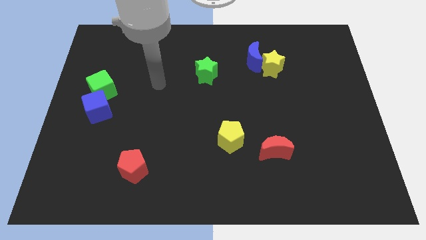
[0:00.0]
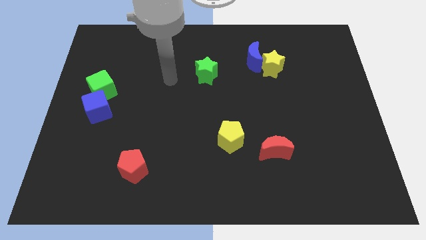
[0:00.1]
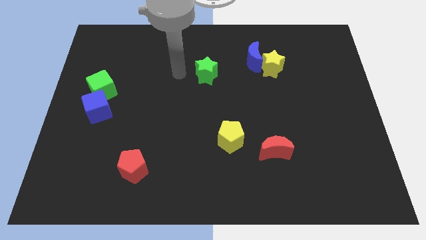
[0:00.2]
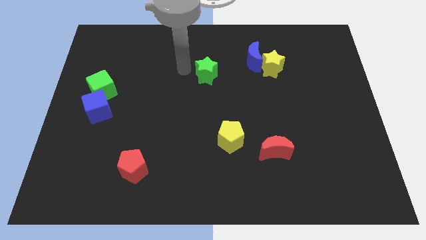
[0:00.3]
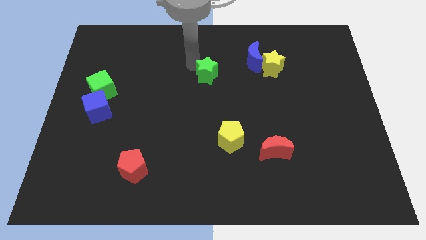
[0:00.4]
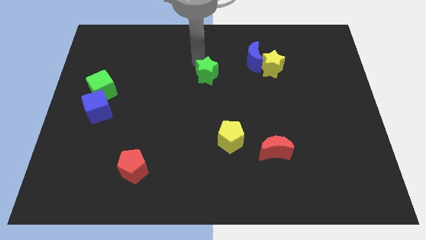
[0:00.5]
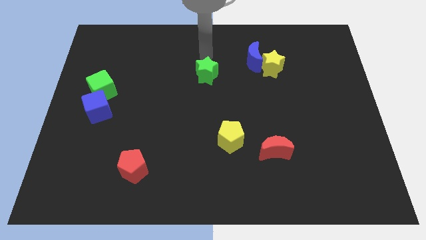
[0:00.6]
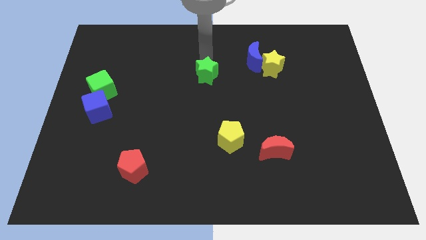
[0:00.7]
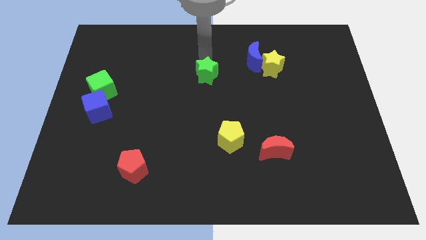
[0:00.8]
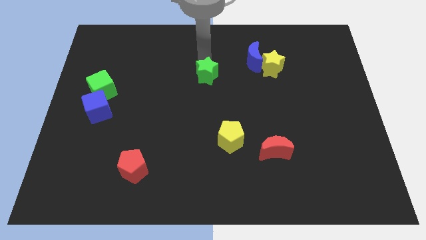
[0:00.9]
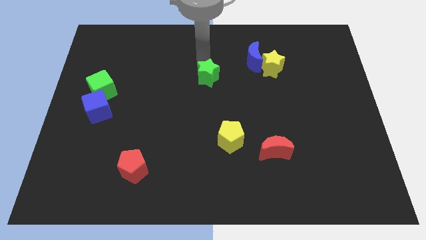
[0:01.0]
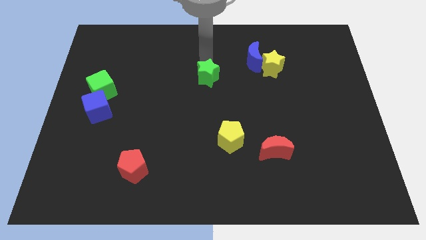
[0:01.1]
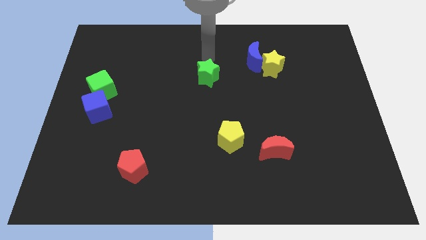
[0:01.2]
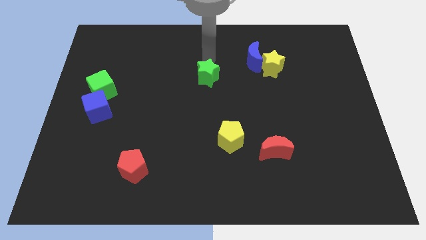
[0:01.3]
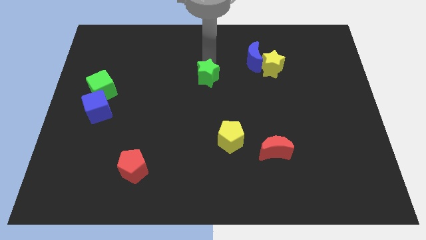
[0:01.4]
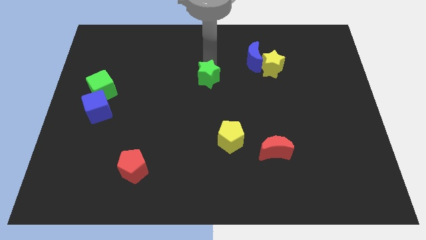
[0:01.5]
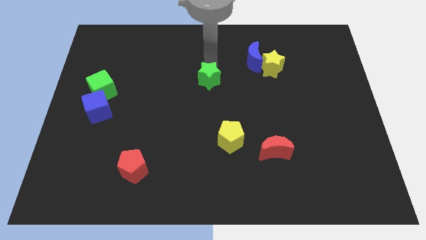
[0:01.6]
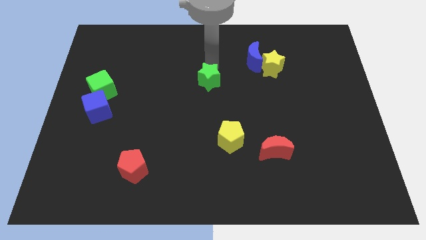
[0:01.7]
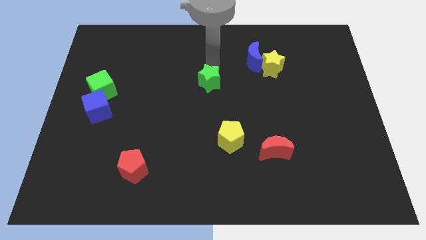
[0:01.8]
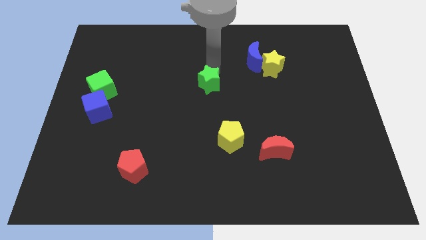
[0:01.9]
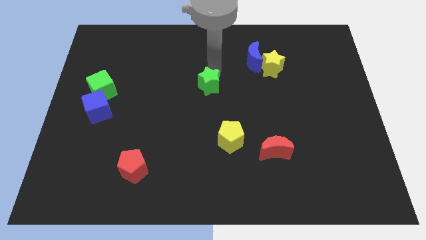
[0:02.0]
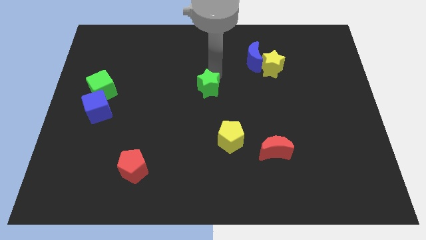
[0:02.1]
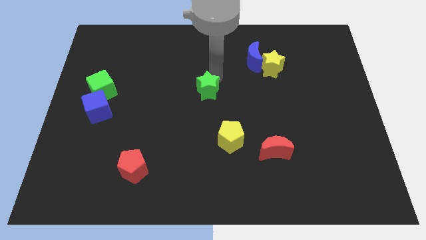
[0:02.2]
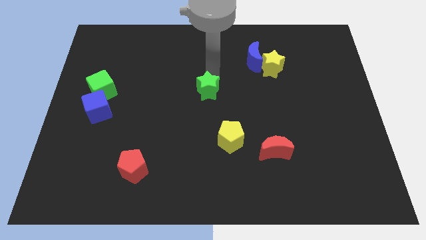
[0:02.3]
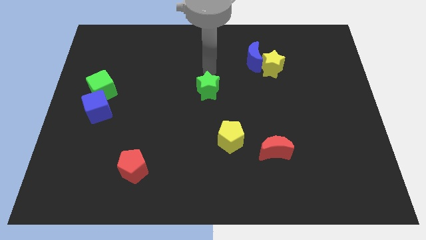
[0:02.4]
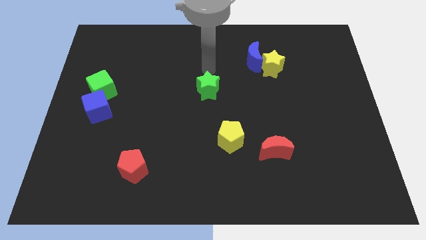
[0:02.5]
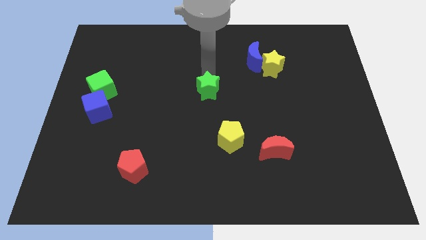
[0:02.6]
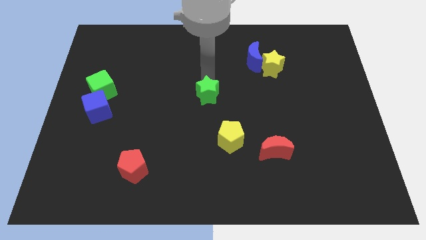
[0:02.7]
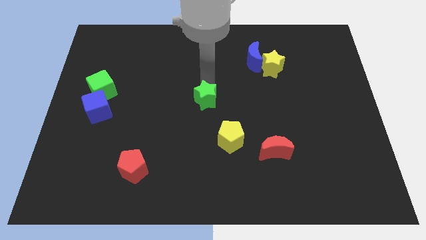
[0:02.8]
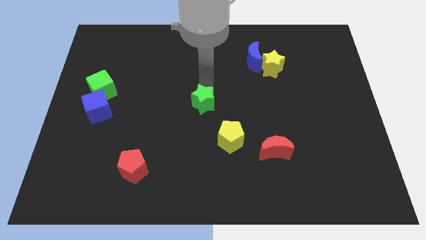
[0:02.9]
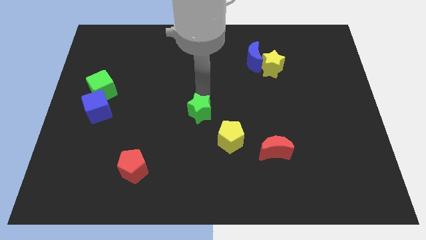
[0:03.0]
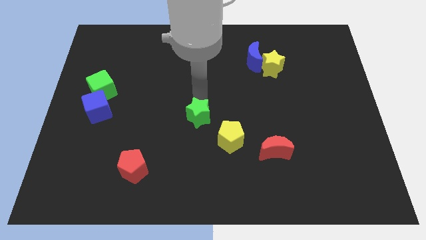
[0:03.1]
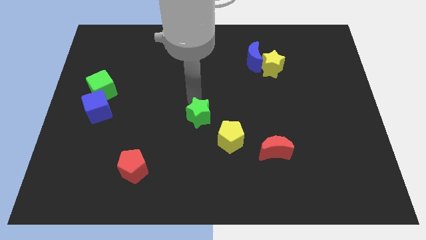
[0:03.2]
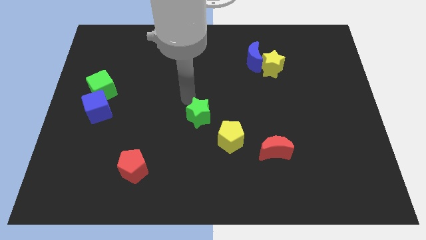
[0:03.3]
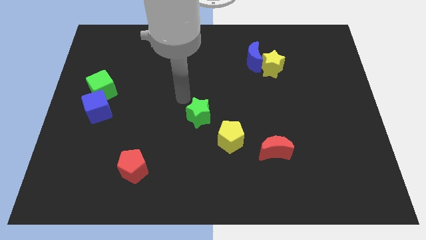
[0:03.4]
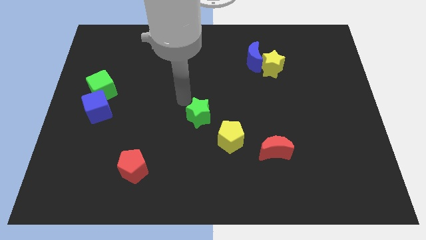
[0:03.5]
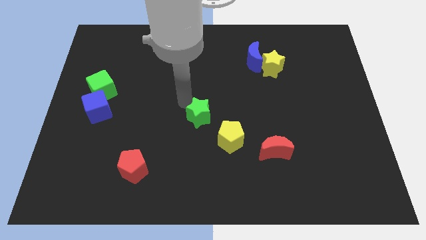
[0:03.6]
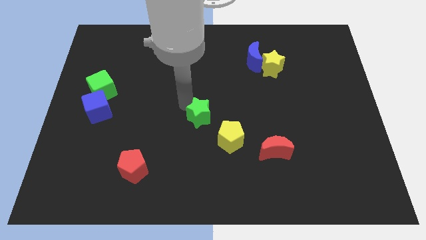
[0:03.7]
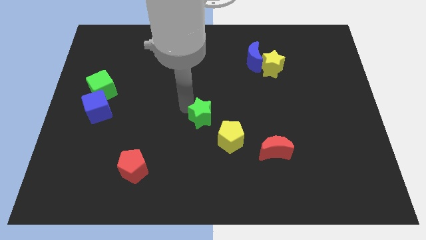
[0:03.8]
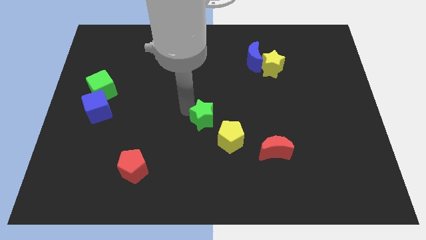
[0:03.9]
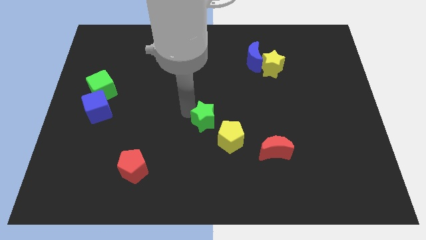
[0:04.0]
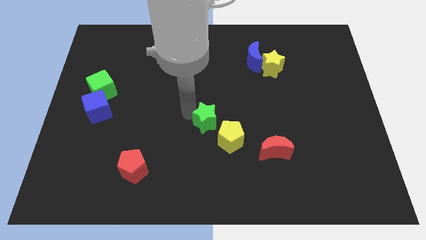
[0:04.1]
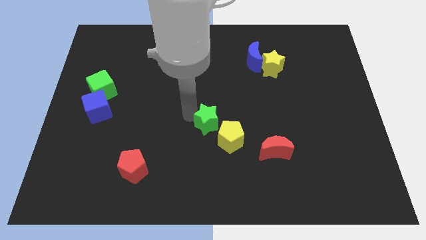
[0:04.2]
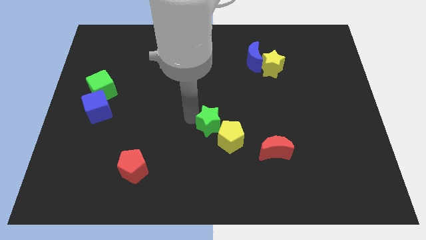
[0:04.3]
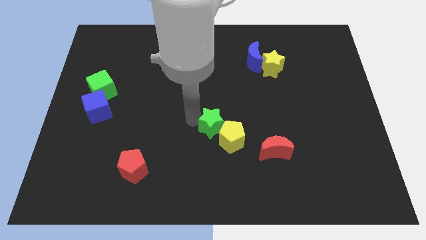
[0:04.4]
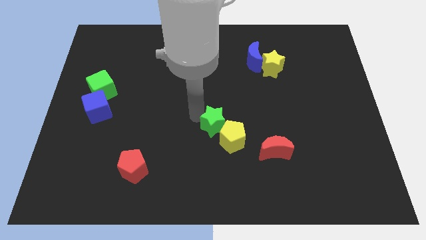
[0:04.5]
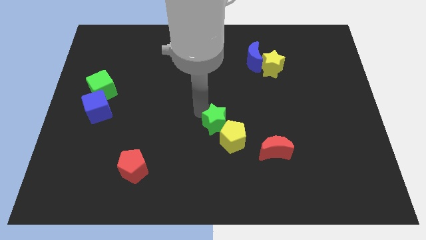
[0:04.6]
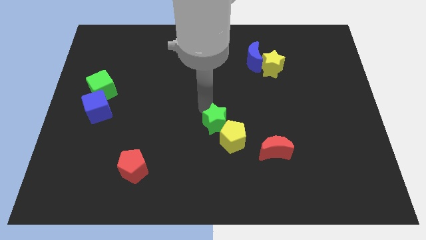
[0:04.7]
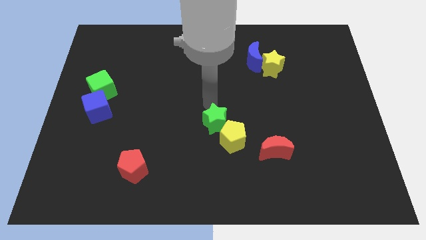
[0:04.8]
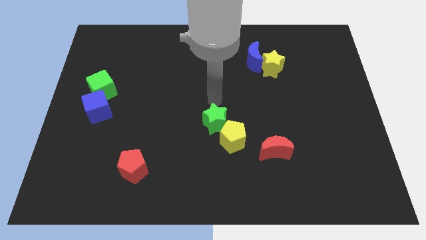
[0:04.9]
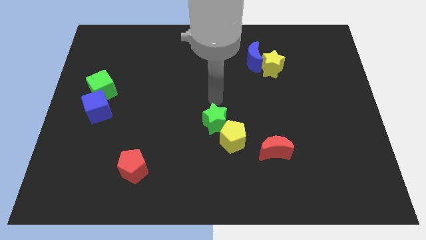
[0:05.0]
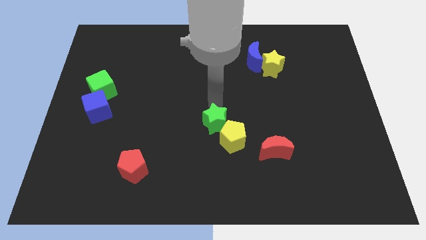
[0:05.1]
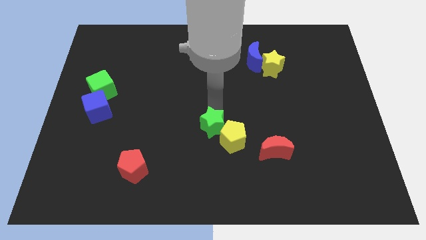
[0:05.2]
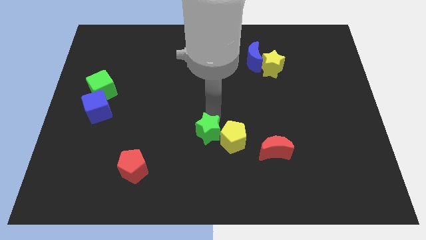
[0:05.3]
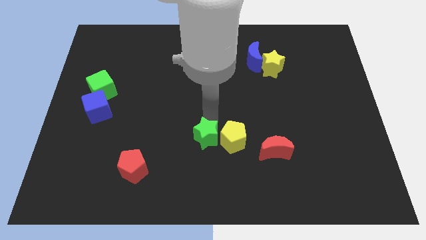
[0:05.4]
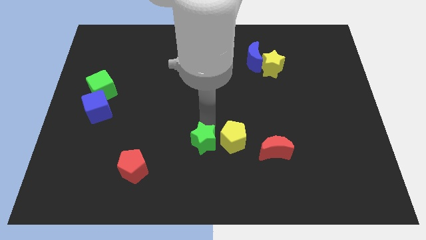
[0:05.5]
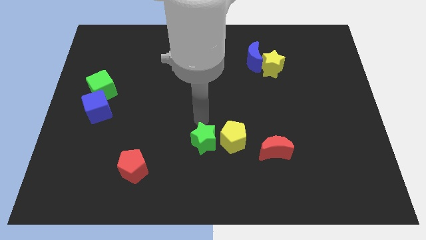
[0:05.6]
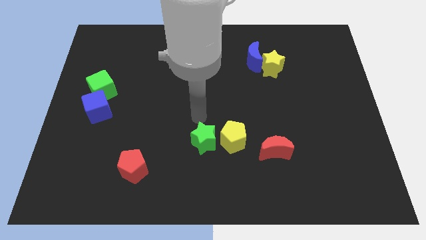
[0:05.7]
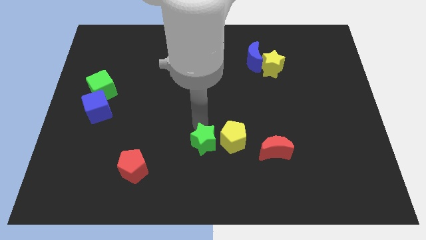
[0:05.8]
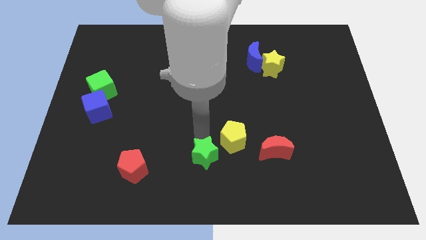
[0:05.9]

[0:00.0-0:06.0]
put the green star to the bottom

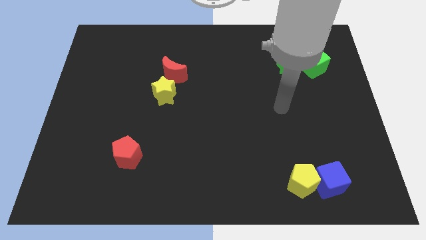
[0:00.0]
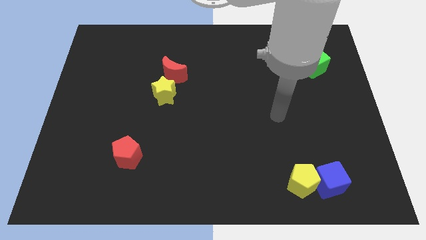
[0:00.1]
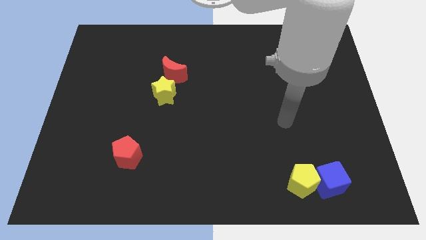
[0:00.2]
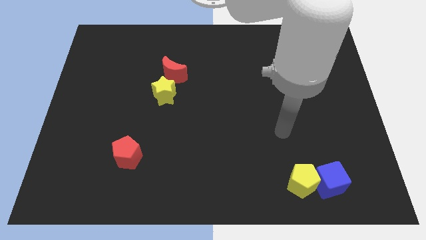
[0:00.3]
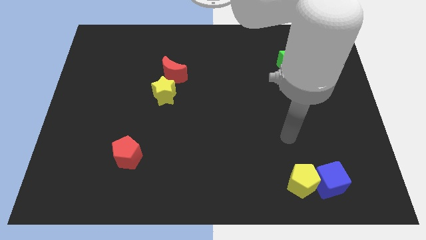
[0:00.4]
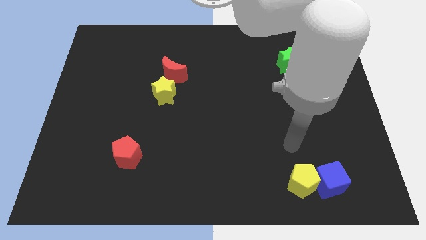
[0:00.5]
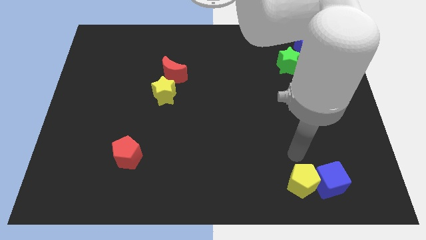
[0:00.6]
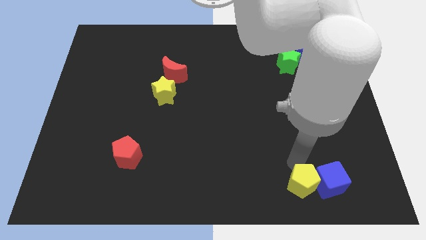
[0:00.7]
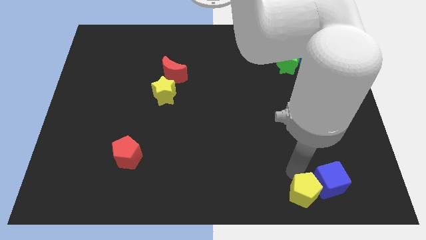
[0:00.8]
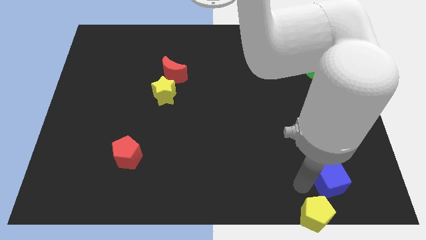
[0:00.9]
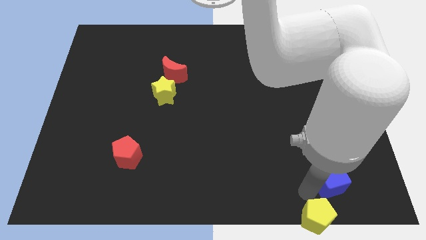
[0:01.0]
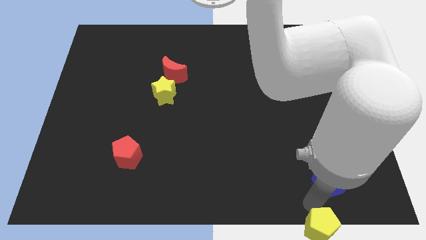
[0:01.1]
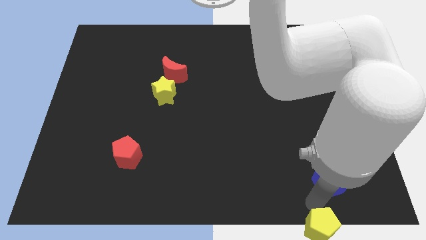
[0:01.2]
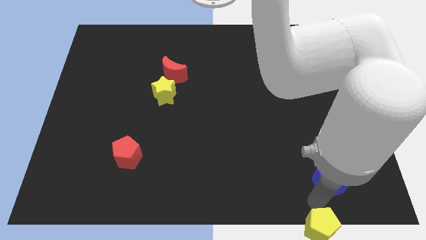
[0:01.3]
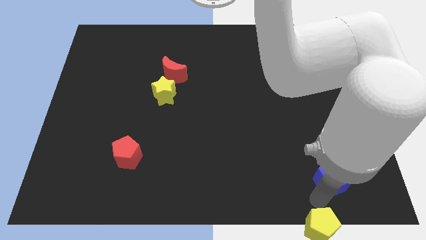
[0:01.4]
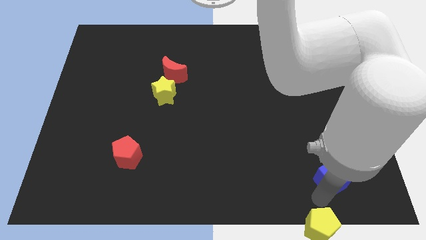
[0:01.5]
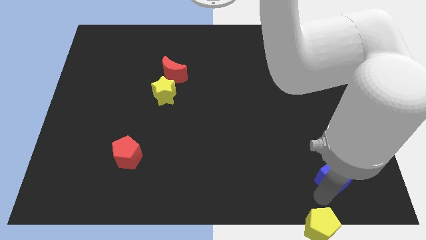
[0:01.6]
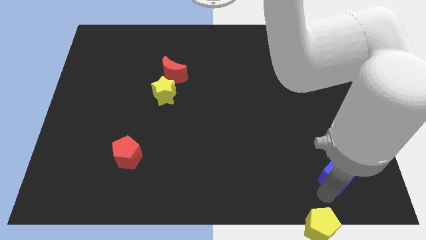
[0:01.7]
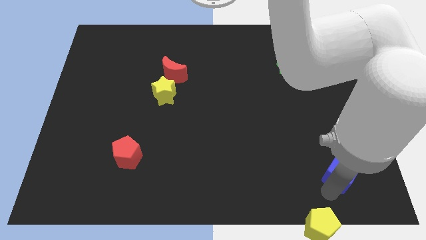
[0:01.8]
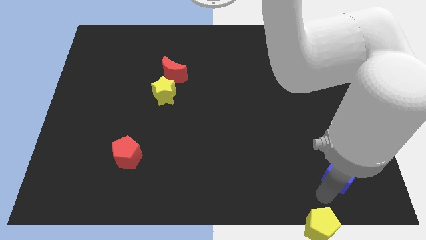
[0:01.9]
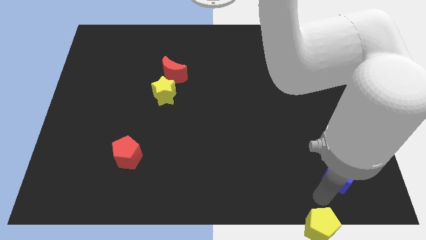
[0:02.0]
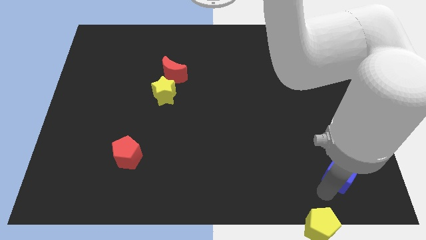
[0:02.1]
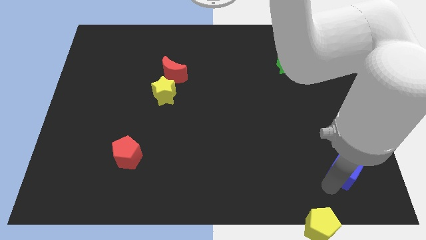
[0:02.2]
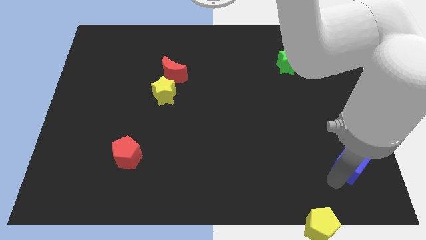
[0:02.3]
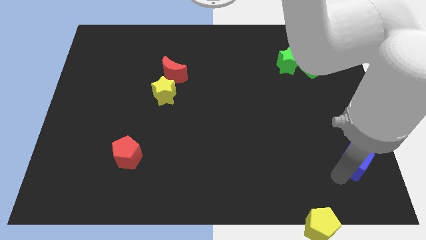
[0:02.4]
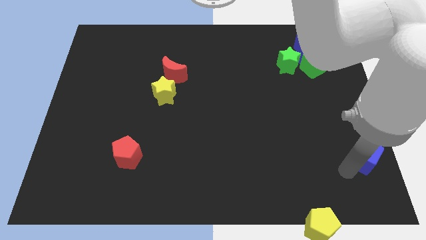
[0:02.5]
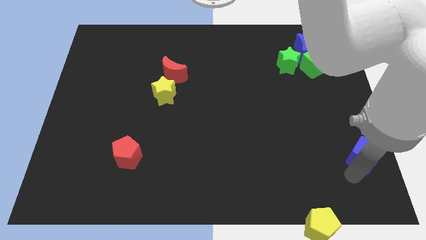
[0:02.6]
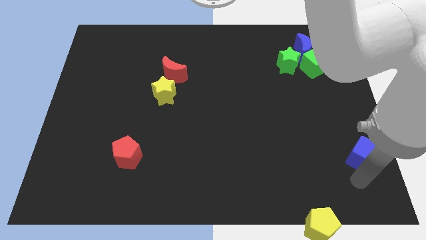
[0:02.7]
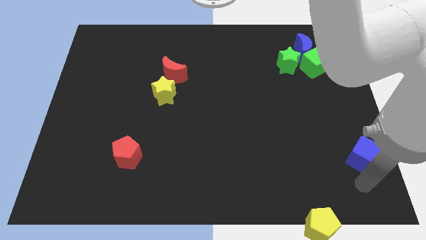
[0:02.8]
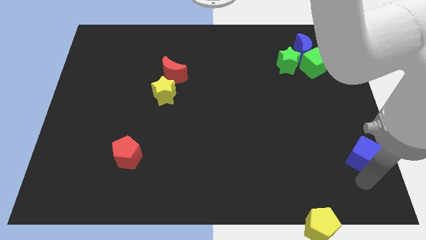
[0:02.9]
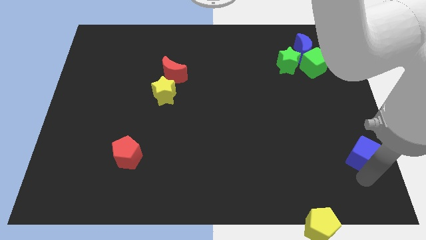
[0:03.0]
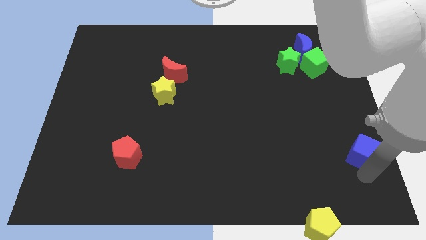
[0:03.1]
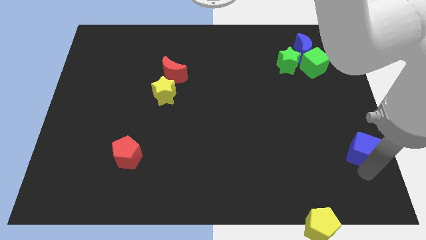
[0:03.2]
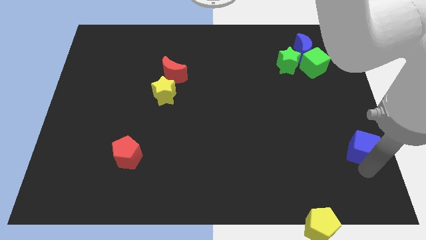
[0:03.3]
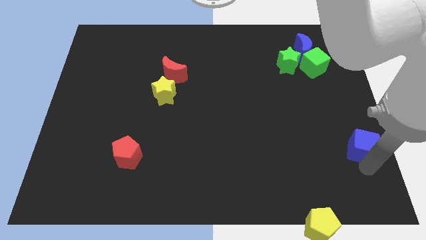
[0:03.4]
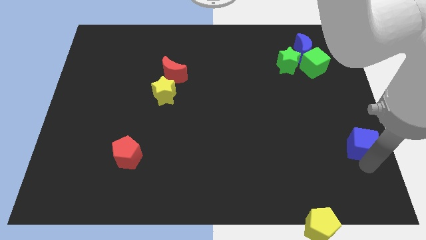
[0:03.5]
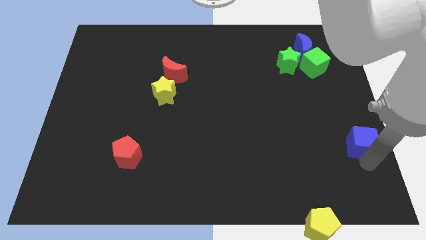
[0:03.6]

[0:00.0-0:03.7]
put the blue cube to the right side of the board
